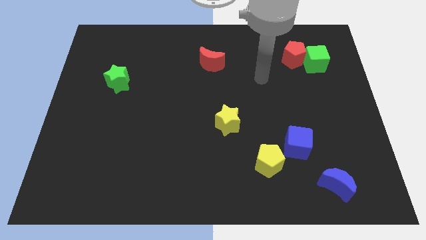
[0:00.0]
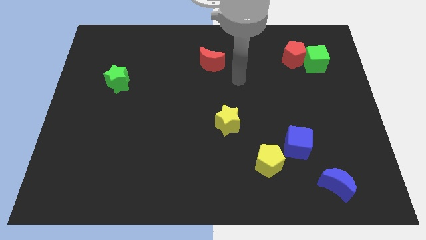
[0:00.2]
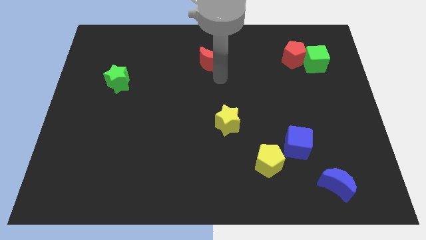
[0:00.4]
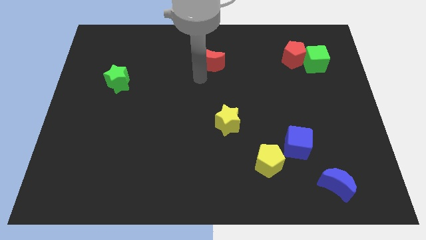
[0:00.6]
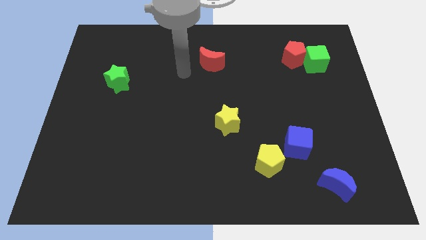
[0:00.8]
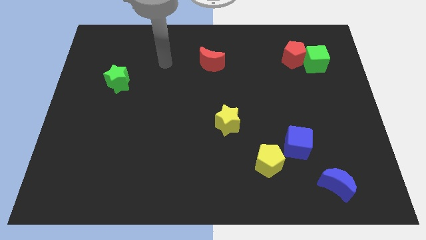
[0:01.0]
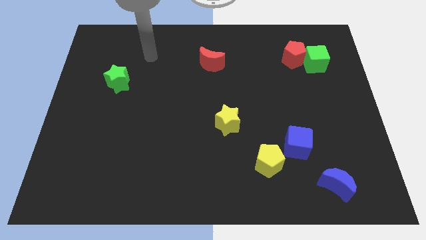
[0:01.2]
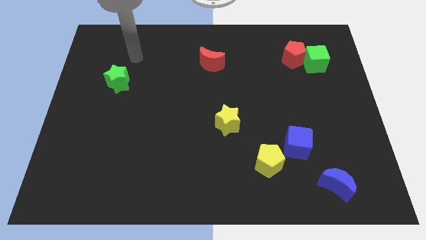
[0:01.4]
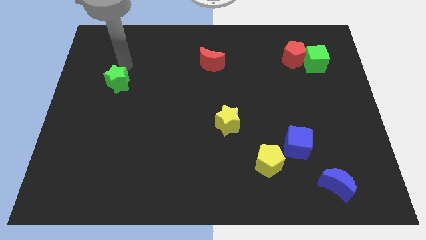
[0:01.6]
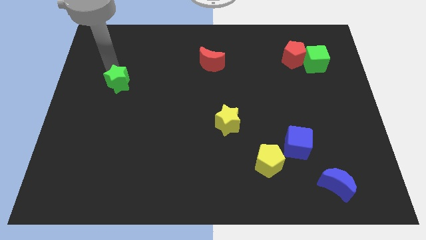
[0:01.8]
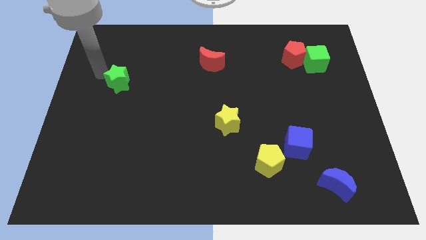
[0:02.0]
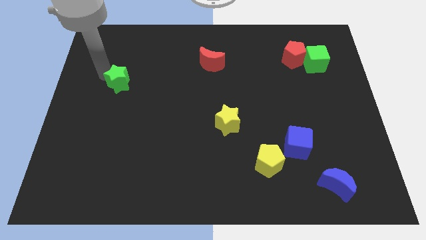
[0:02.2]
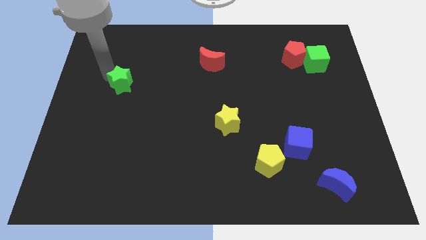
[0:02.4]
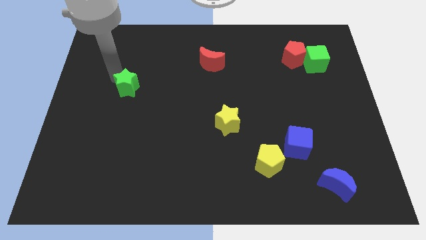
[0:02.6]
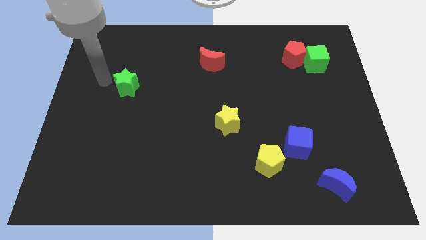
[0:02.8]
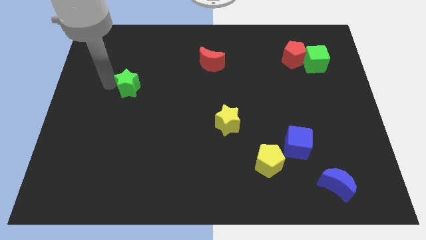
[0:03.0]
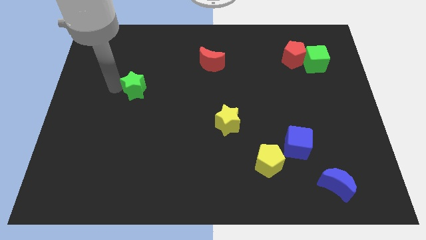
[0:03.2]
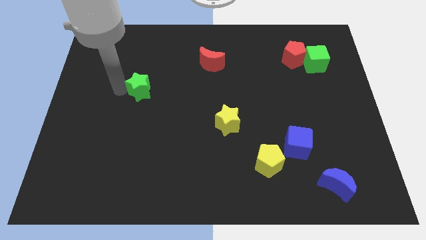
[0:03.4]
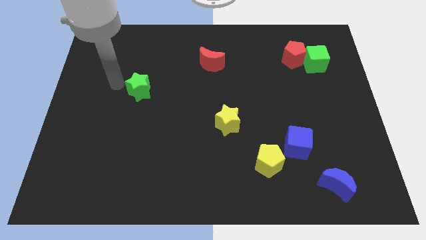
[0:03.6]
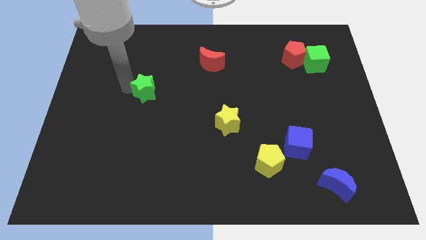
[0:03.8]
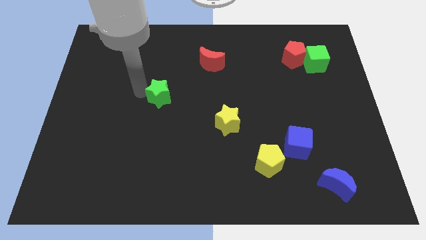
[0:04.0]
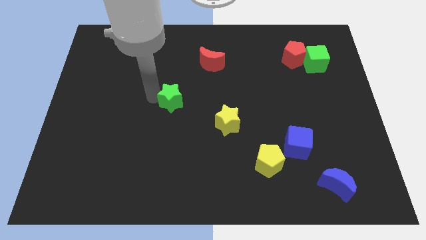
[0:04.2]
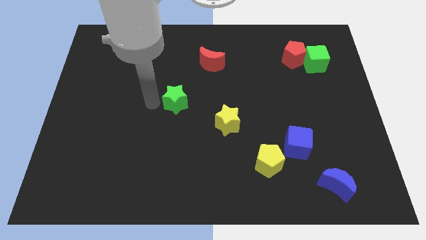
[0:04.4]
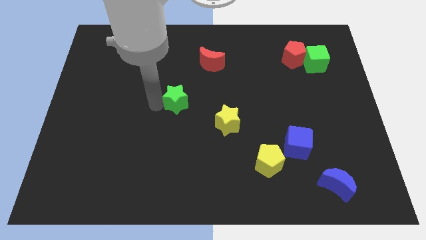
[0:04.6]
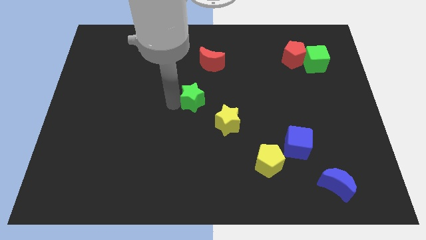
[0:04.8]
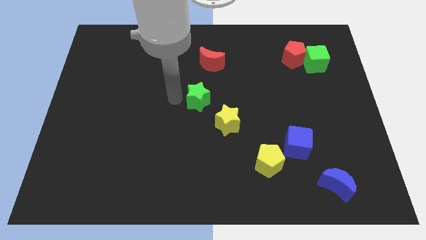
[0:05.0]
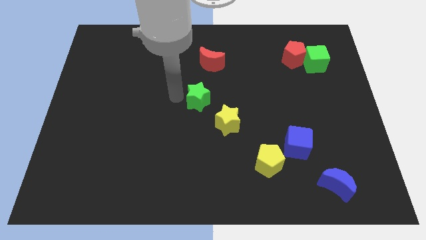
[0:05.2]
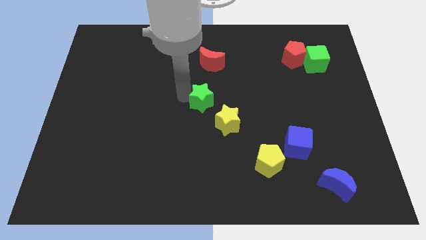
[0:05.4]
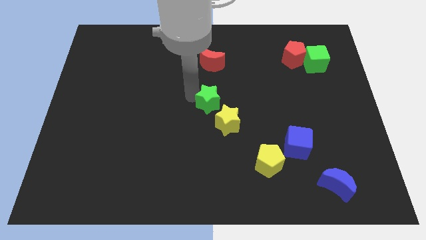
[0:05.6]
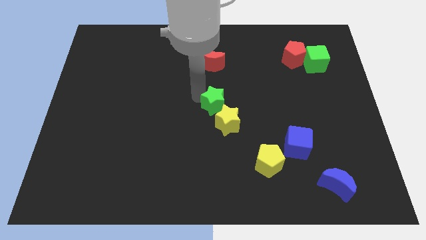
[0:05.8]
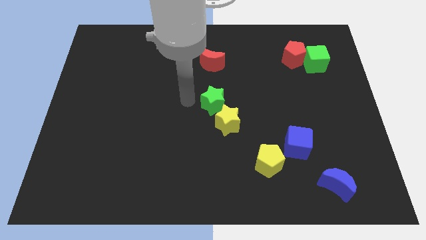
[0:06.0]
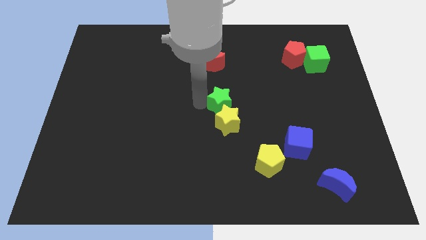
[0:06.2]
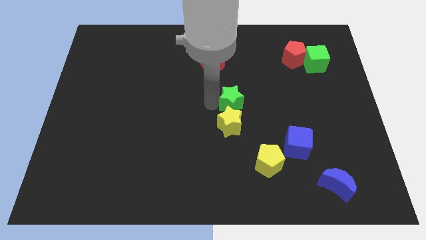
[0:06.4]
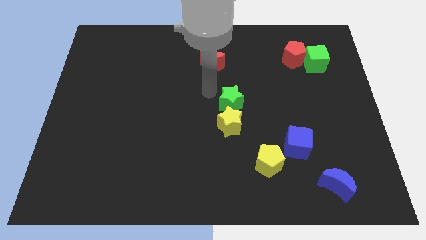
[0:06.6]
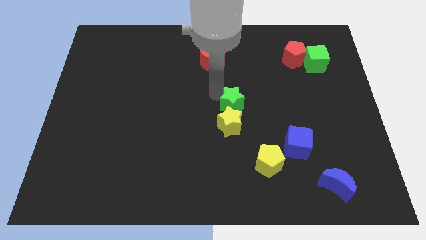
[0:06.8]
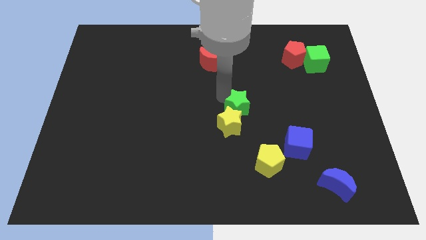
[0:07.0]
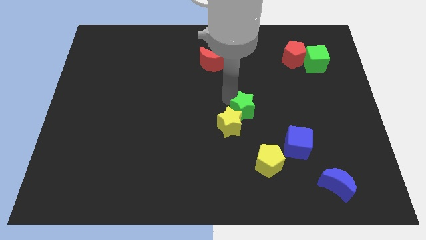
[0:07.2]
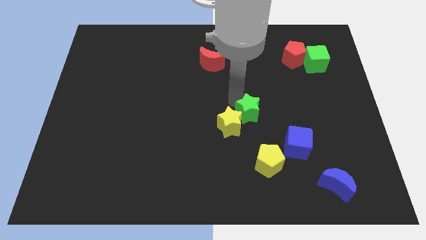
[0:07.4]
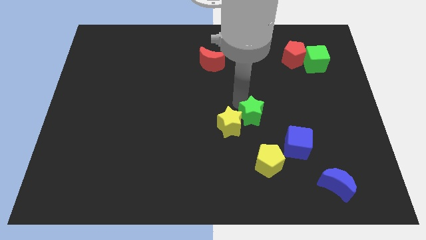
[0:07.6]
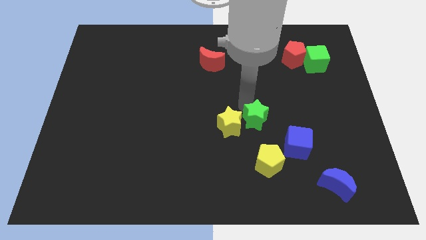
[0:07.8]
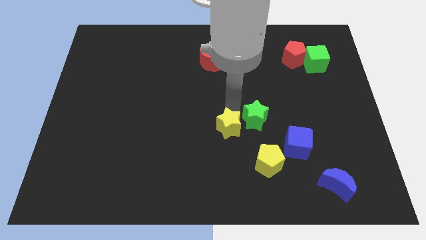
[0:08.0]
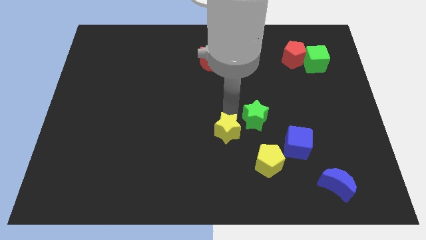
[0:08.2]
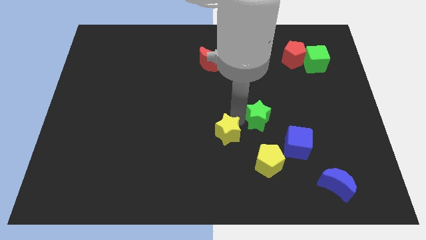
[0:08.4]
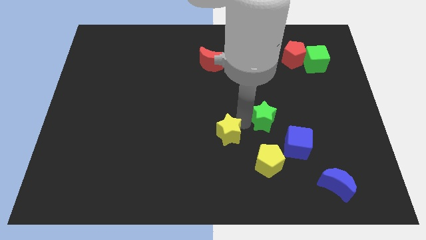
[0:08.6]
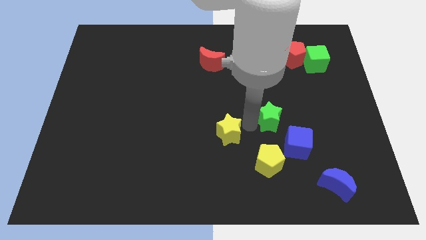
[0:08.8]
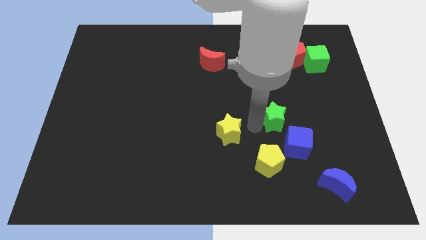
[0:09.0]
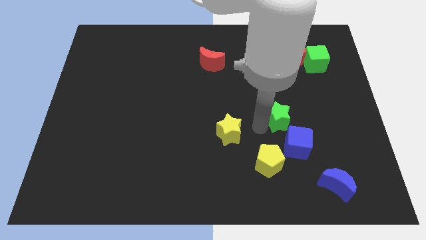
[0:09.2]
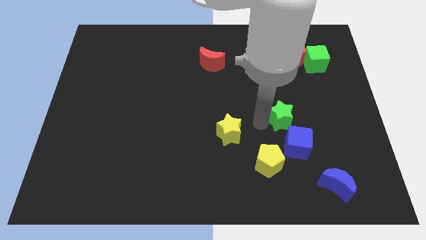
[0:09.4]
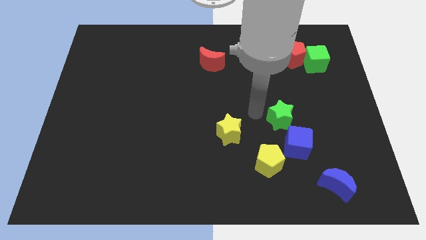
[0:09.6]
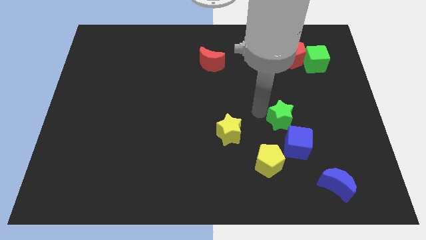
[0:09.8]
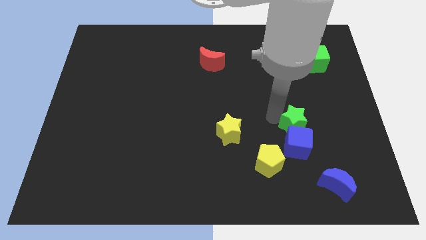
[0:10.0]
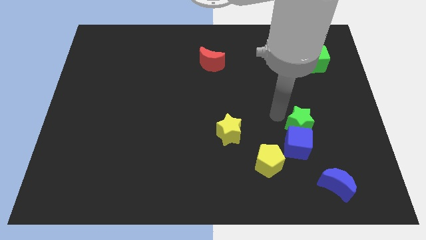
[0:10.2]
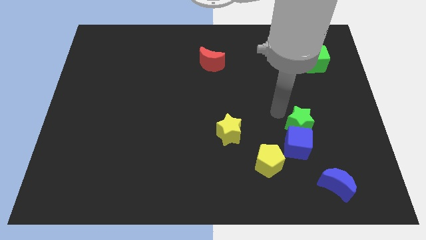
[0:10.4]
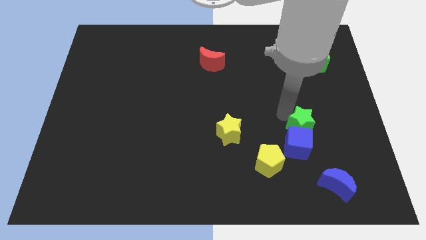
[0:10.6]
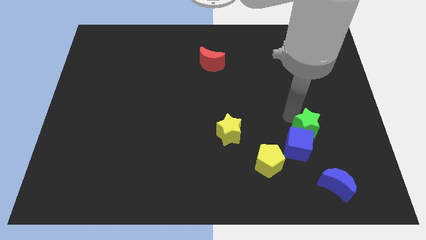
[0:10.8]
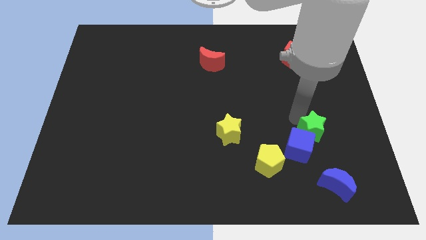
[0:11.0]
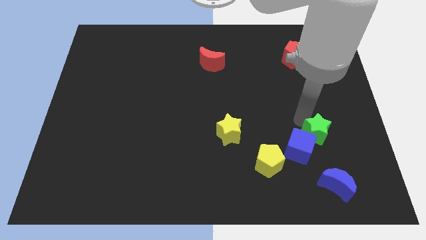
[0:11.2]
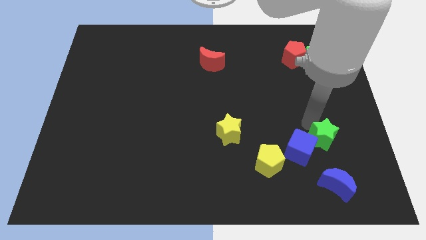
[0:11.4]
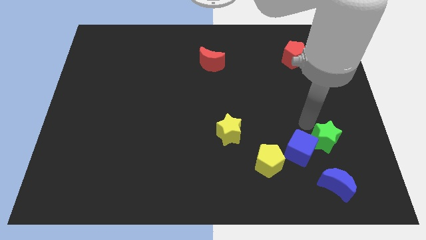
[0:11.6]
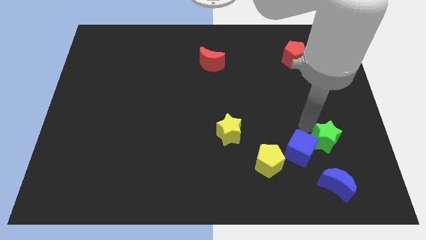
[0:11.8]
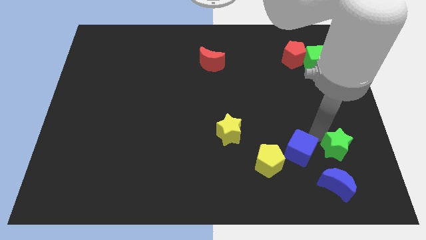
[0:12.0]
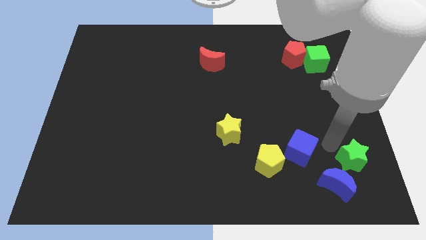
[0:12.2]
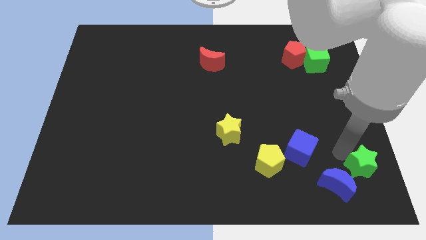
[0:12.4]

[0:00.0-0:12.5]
push the green star to the lower right corner

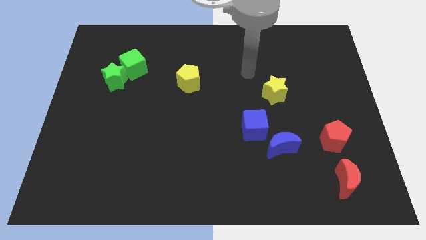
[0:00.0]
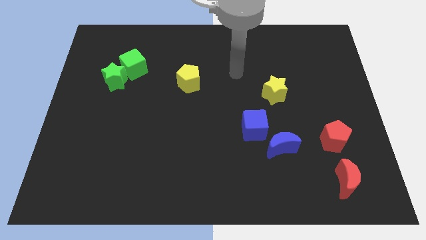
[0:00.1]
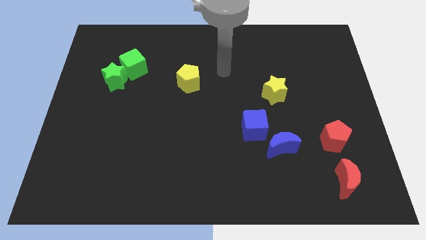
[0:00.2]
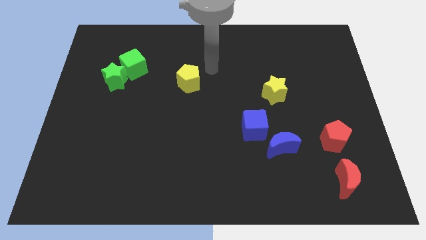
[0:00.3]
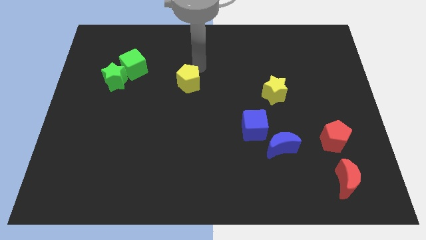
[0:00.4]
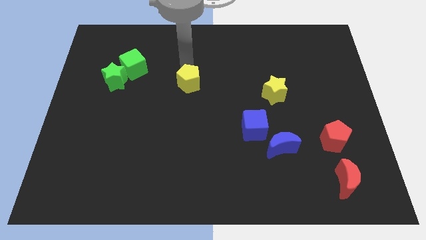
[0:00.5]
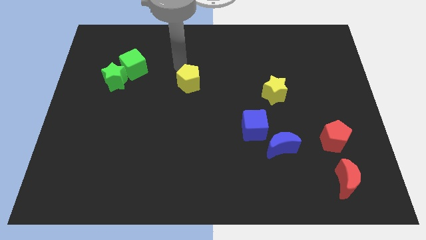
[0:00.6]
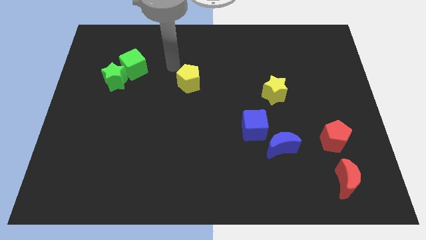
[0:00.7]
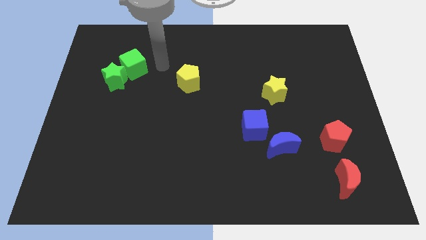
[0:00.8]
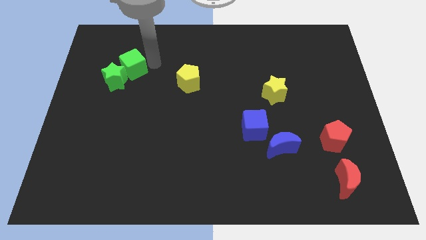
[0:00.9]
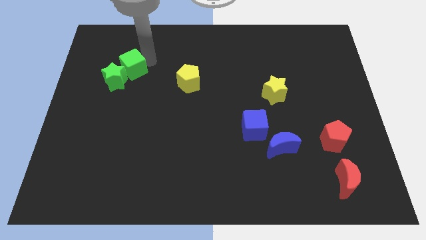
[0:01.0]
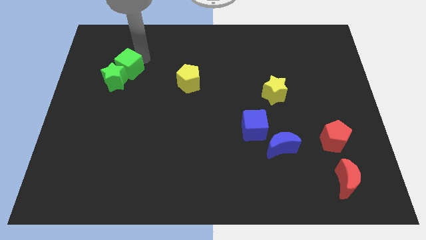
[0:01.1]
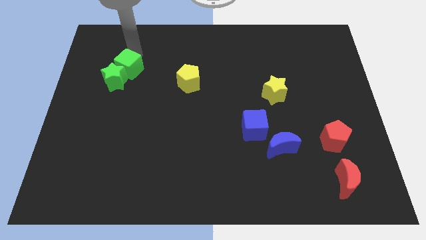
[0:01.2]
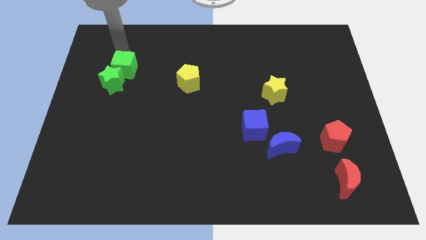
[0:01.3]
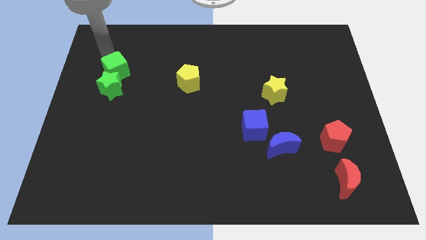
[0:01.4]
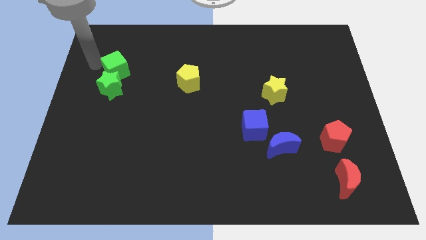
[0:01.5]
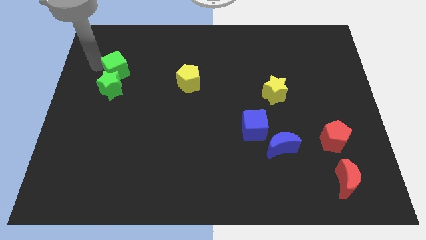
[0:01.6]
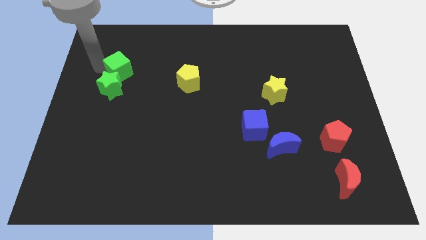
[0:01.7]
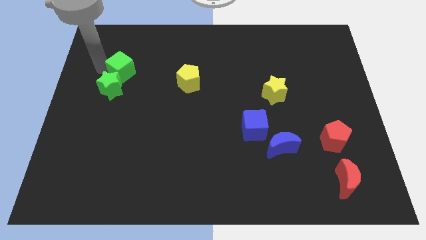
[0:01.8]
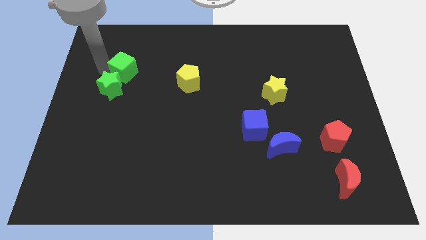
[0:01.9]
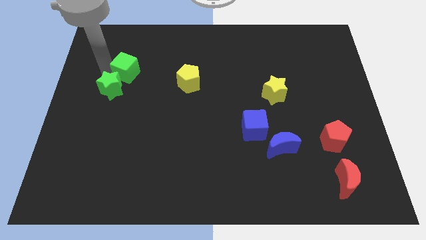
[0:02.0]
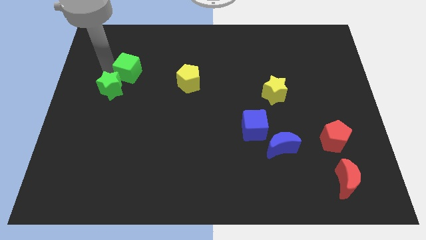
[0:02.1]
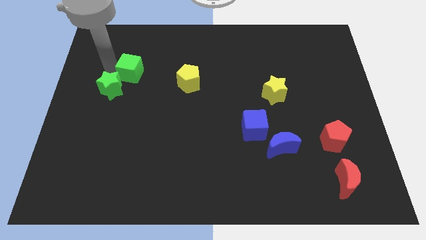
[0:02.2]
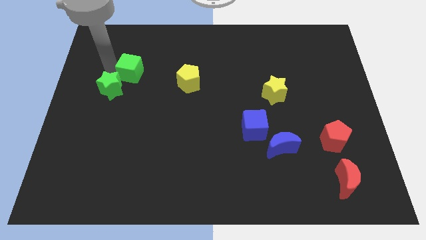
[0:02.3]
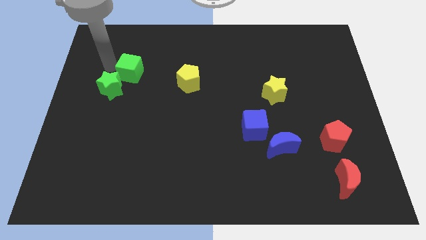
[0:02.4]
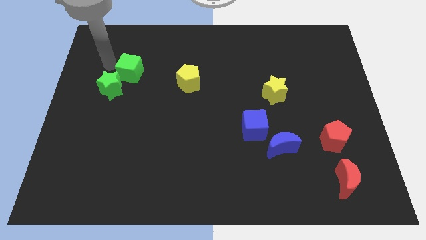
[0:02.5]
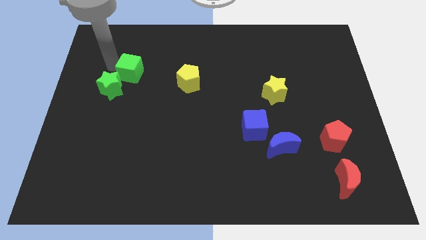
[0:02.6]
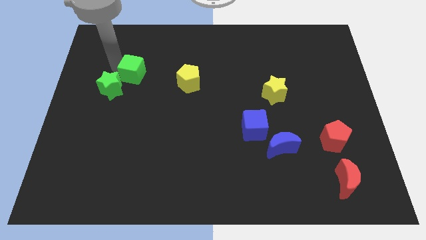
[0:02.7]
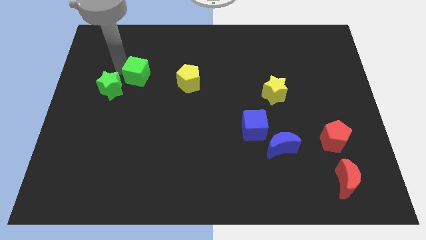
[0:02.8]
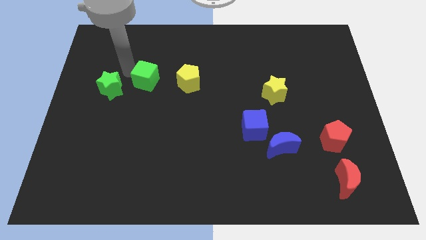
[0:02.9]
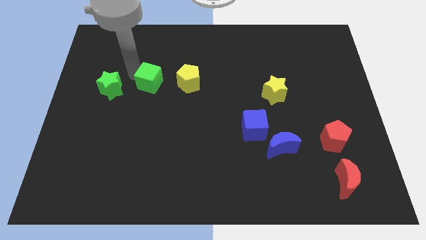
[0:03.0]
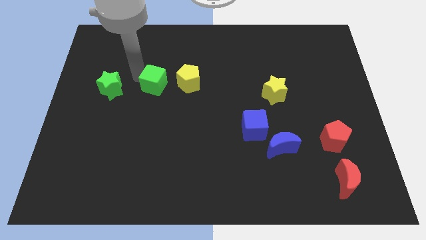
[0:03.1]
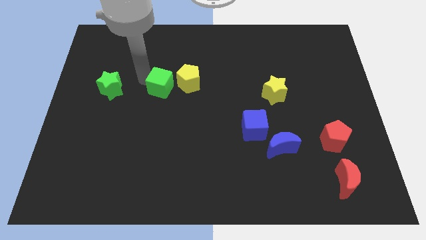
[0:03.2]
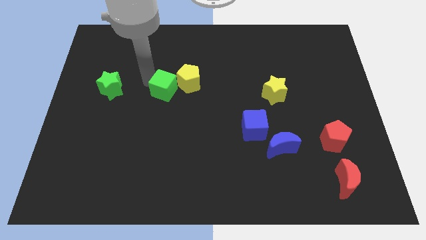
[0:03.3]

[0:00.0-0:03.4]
put the green cube to the middle
